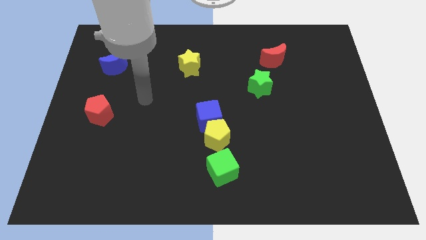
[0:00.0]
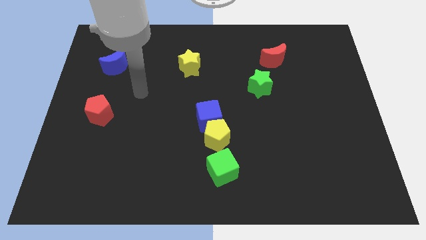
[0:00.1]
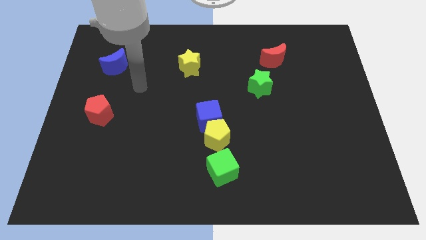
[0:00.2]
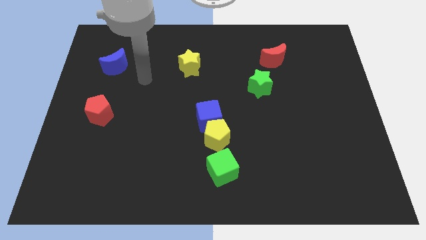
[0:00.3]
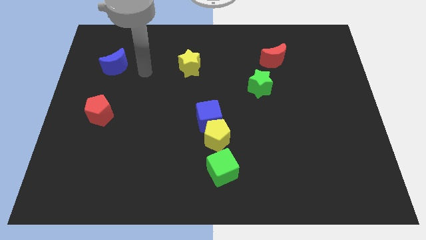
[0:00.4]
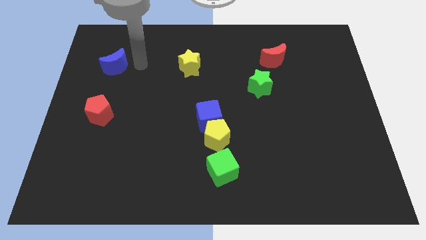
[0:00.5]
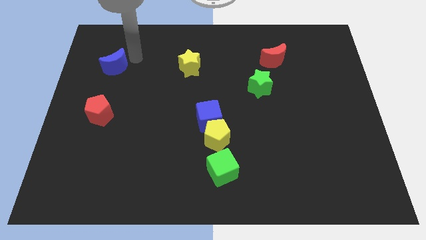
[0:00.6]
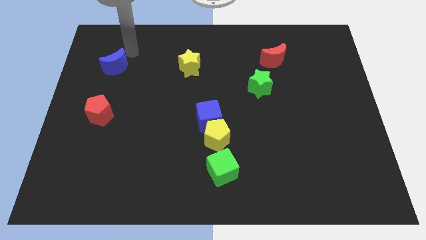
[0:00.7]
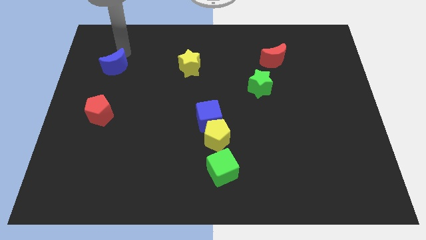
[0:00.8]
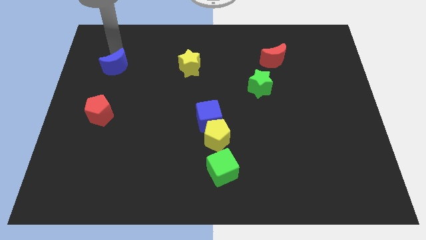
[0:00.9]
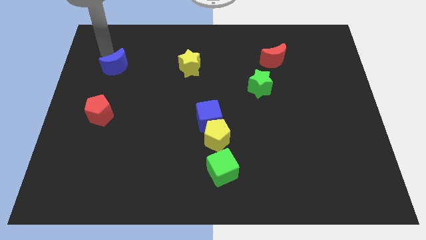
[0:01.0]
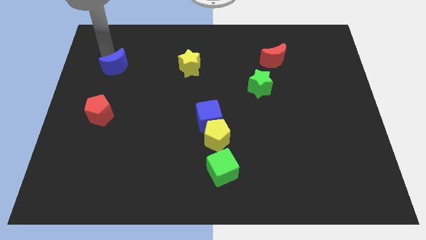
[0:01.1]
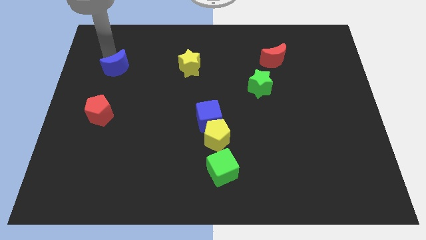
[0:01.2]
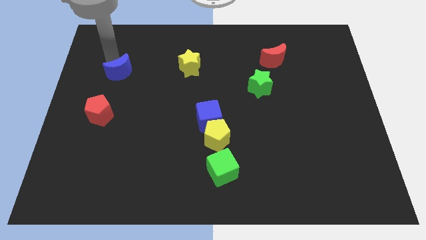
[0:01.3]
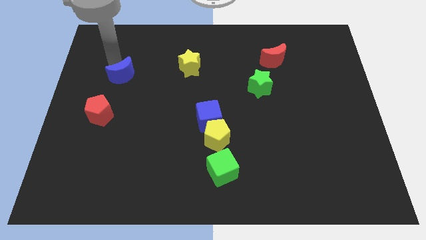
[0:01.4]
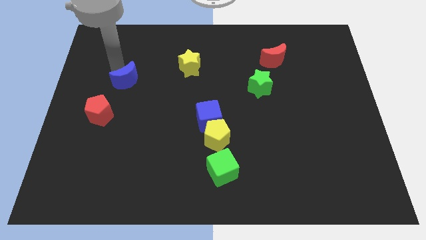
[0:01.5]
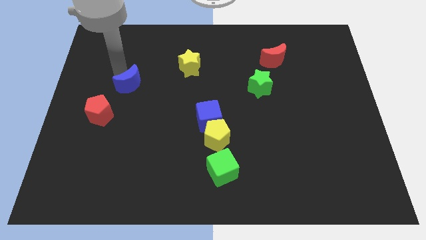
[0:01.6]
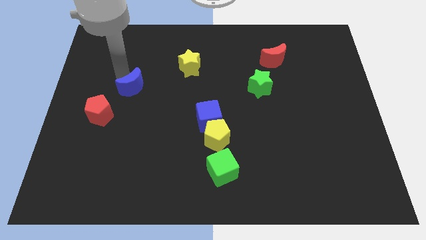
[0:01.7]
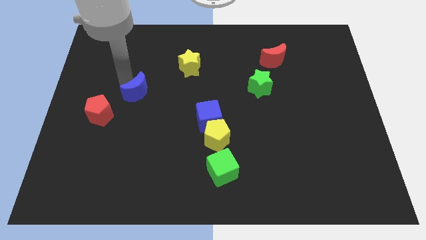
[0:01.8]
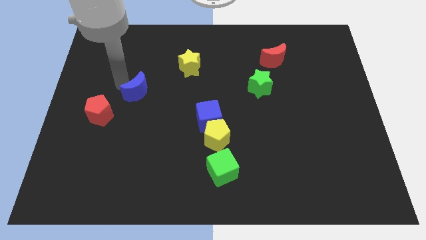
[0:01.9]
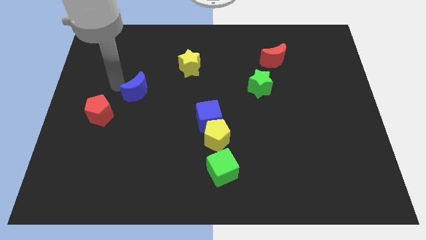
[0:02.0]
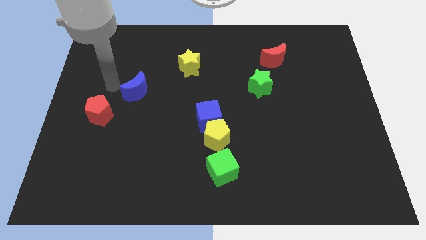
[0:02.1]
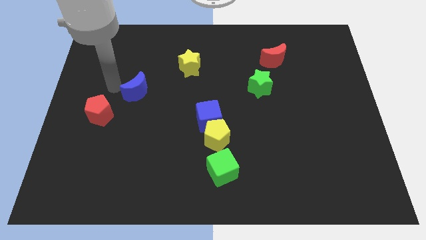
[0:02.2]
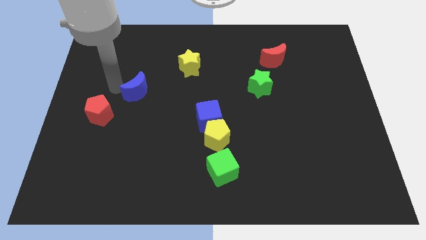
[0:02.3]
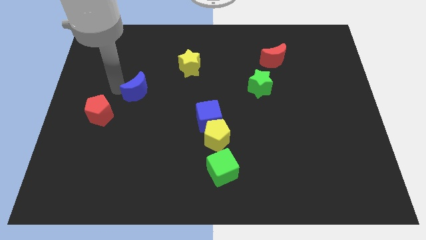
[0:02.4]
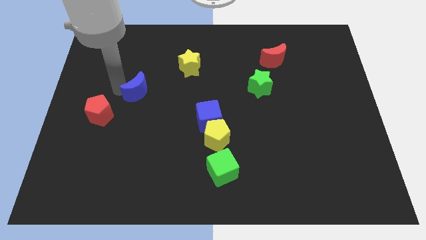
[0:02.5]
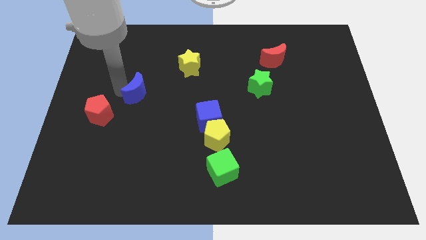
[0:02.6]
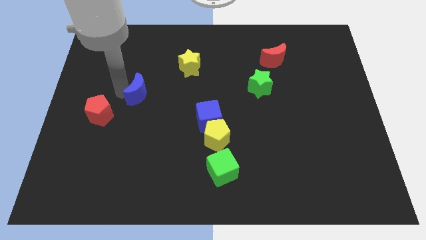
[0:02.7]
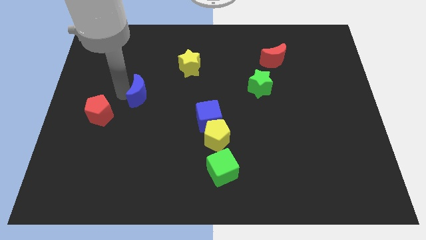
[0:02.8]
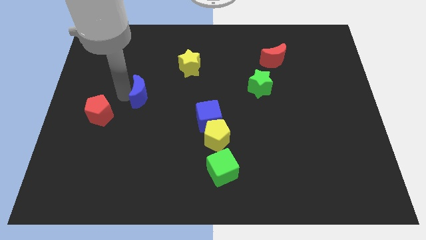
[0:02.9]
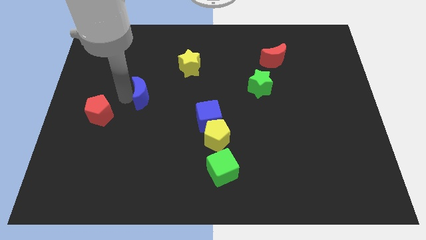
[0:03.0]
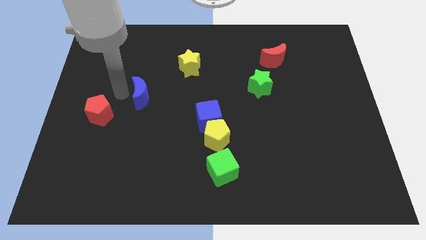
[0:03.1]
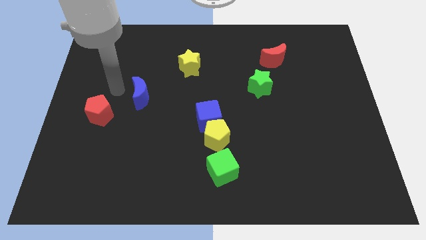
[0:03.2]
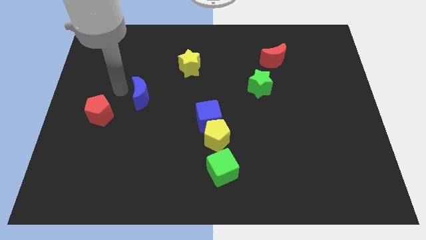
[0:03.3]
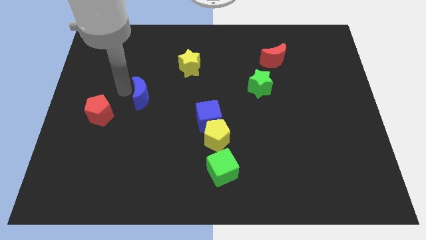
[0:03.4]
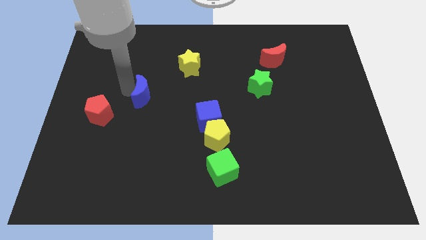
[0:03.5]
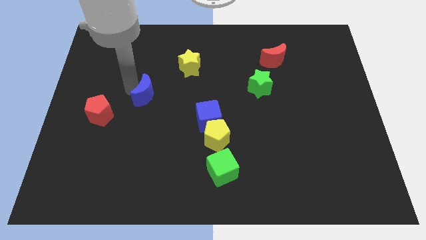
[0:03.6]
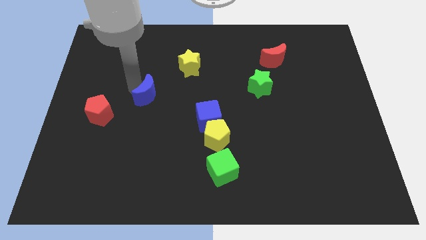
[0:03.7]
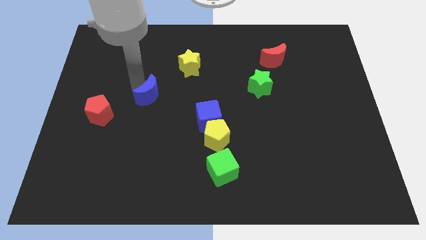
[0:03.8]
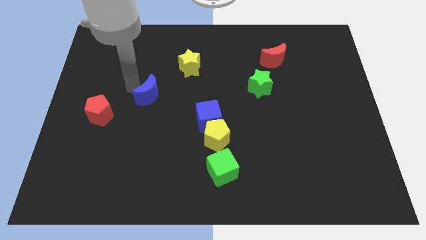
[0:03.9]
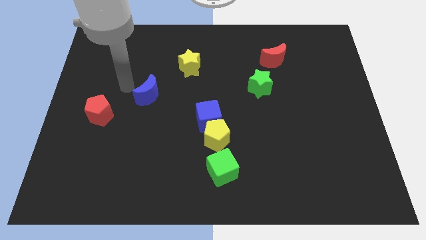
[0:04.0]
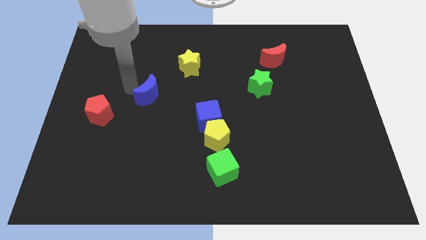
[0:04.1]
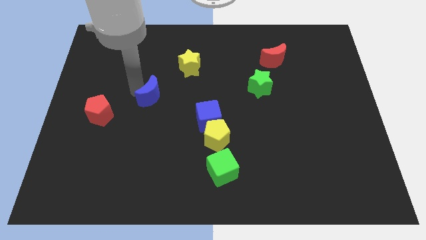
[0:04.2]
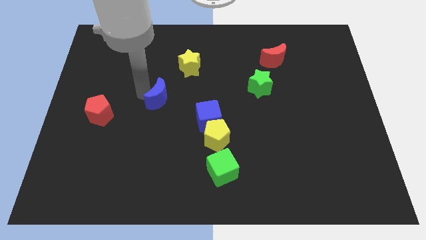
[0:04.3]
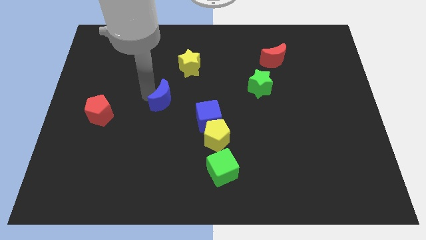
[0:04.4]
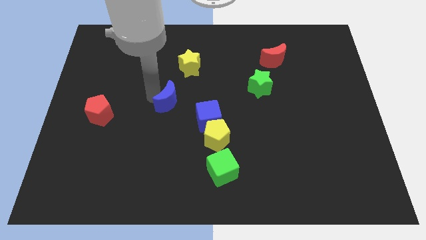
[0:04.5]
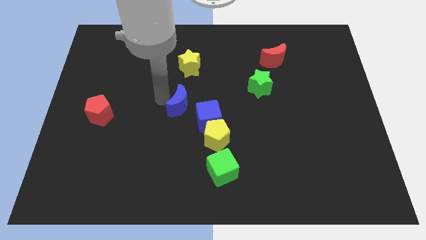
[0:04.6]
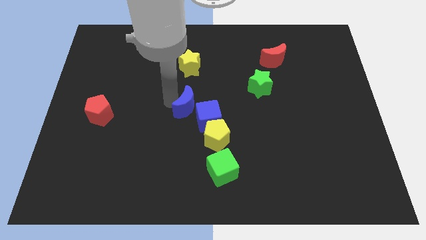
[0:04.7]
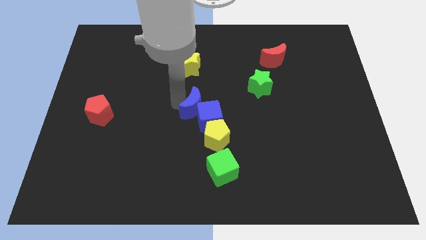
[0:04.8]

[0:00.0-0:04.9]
put the blue moon to the blue cube

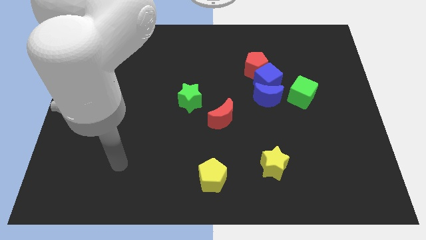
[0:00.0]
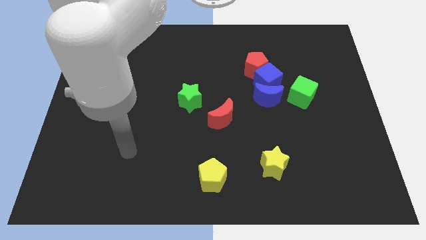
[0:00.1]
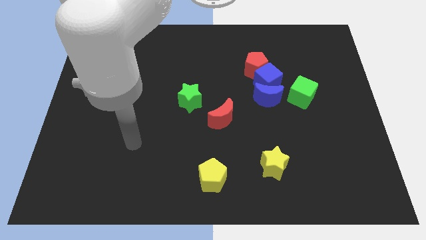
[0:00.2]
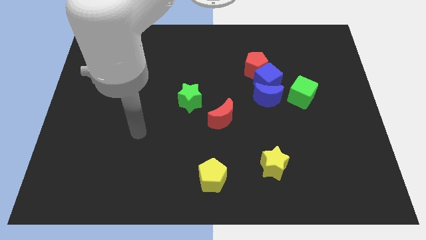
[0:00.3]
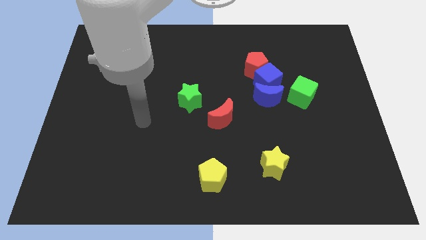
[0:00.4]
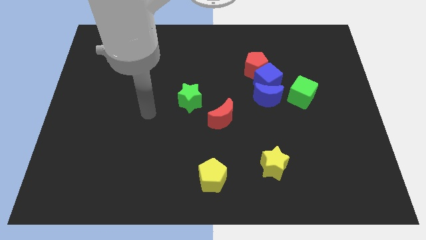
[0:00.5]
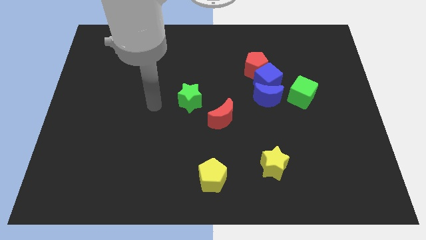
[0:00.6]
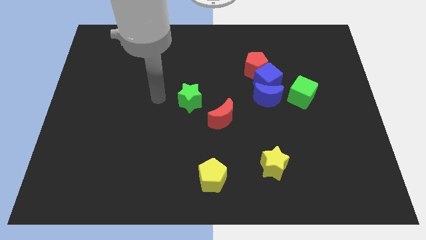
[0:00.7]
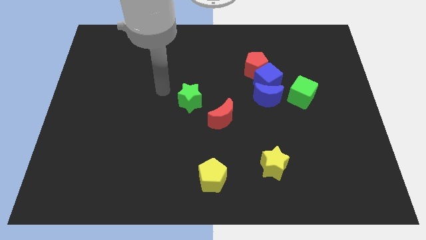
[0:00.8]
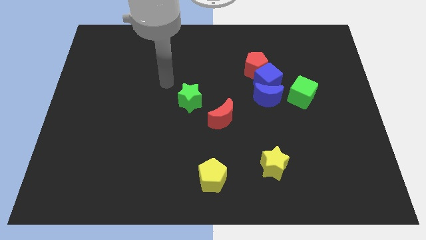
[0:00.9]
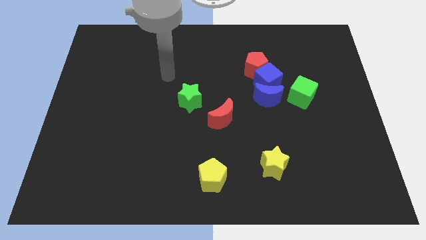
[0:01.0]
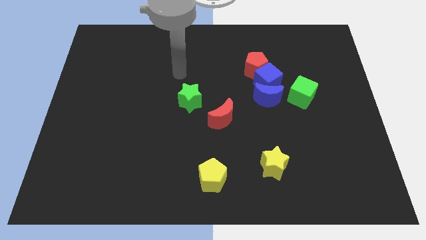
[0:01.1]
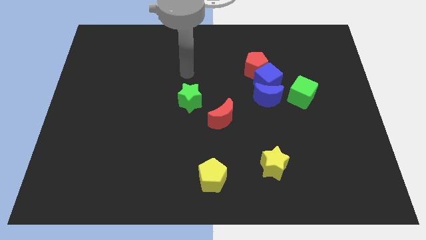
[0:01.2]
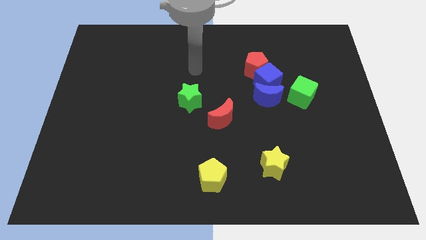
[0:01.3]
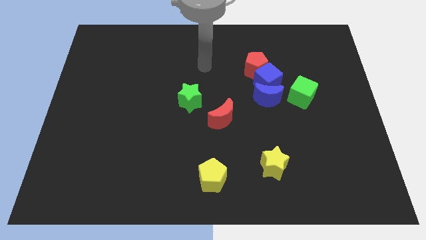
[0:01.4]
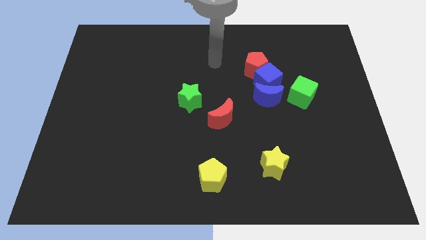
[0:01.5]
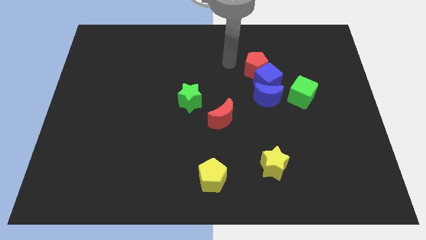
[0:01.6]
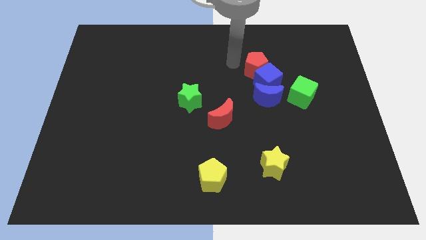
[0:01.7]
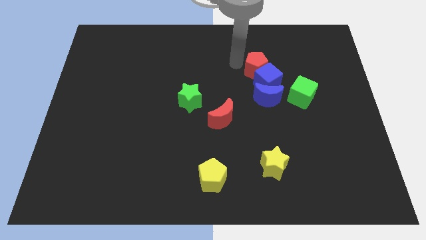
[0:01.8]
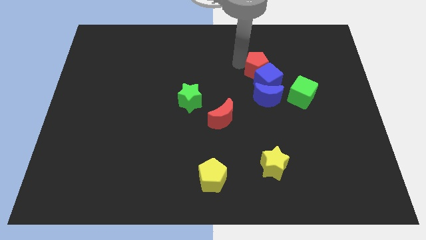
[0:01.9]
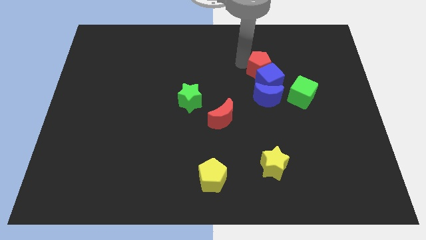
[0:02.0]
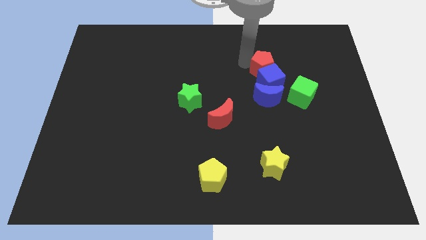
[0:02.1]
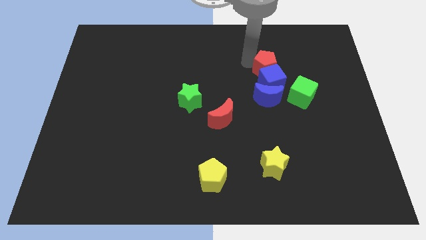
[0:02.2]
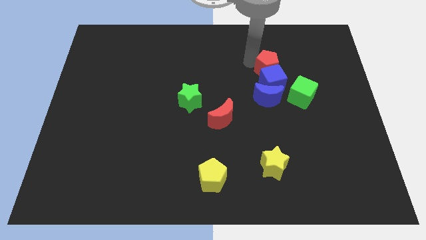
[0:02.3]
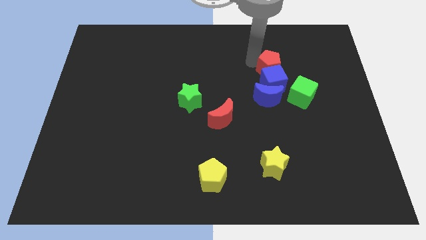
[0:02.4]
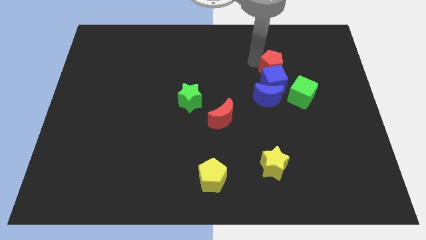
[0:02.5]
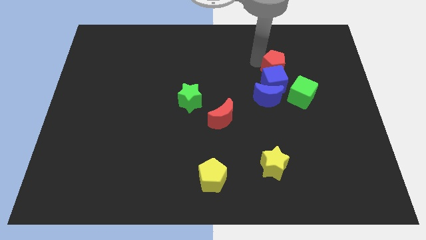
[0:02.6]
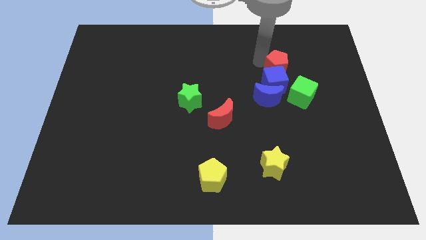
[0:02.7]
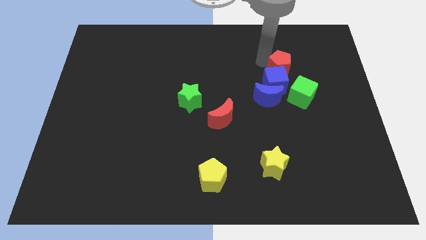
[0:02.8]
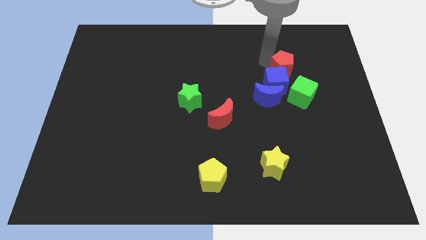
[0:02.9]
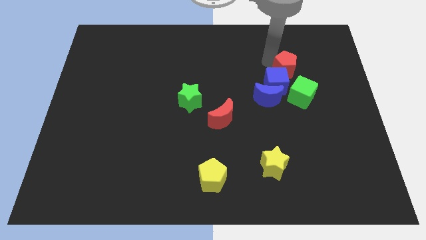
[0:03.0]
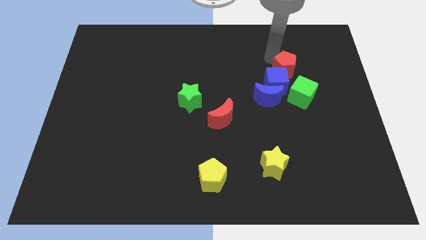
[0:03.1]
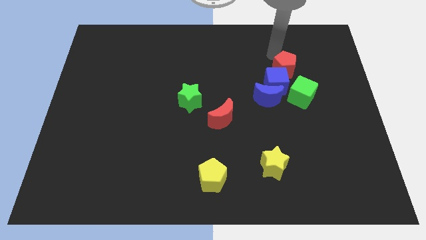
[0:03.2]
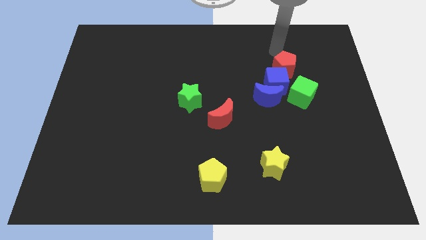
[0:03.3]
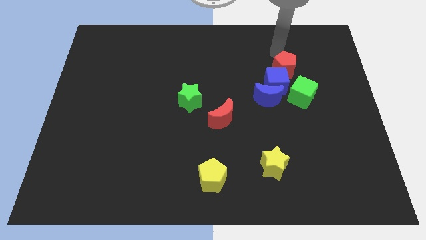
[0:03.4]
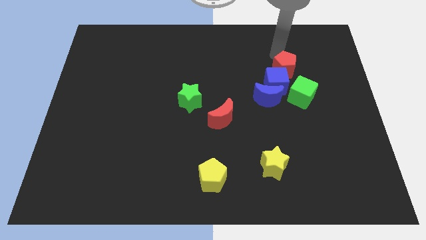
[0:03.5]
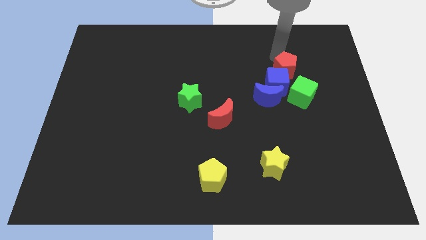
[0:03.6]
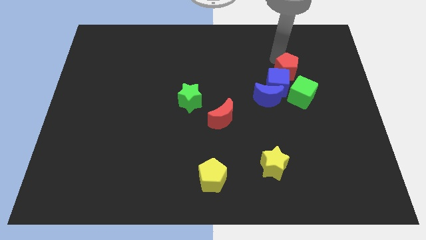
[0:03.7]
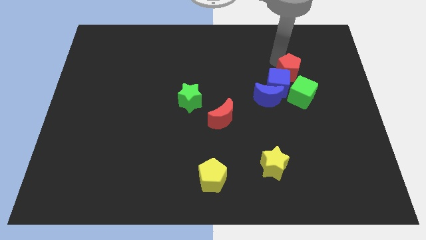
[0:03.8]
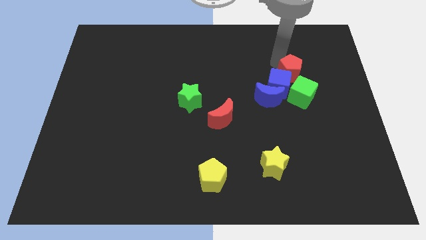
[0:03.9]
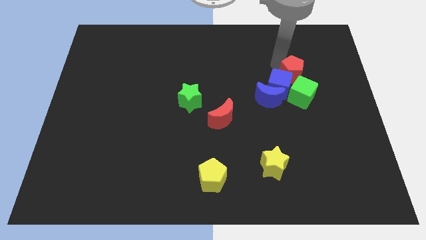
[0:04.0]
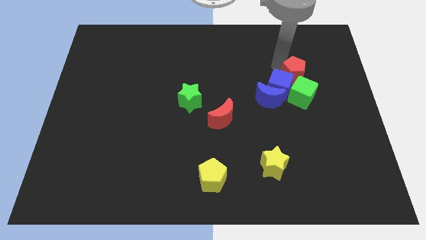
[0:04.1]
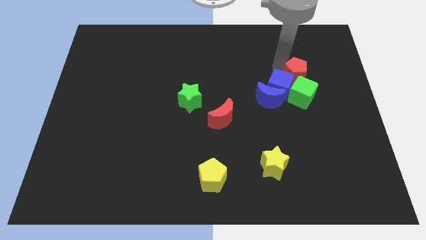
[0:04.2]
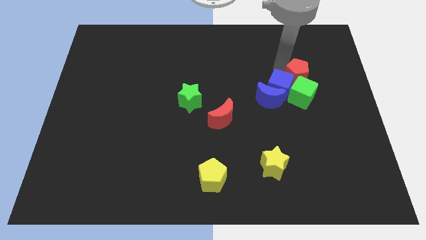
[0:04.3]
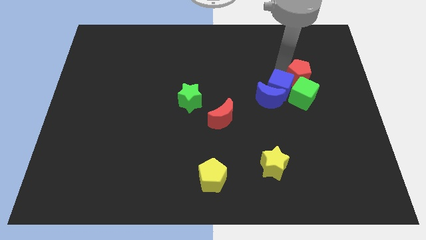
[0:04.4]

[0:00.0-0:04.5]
push the red pentagon next to the green cube
